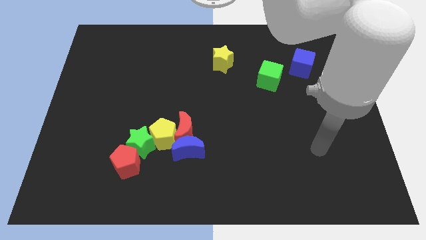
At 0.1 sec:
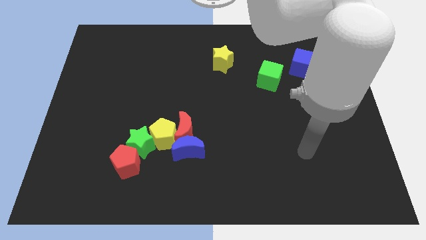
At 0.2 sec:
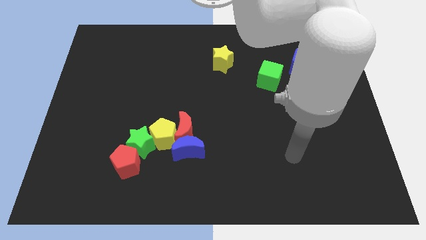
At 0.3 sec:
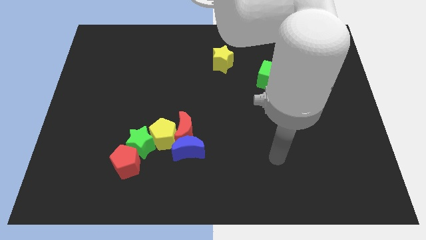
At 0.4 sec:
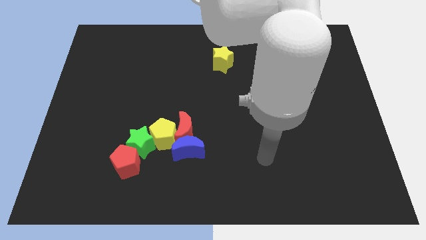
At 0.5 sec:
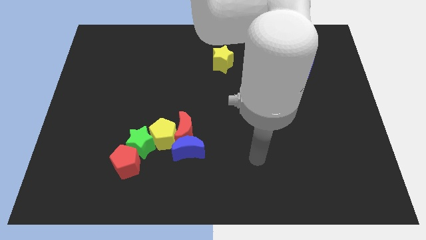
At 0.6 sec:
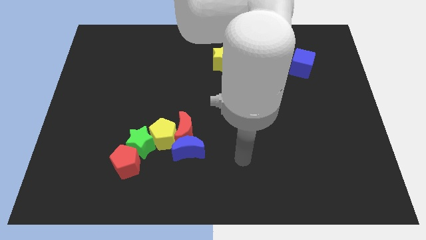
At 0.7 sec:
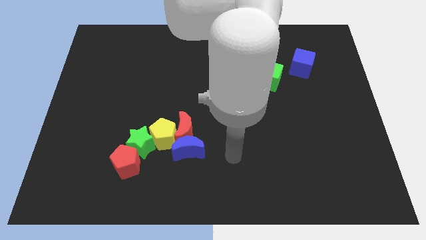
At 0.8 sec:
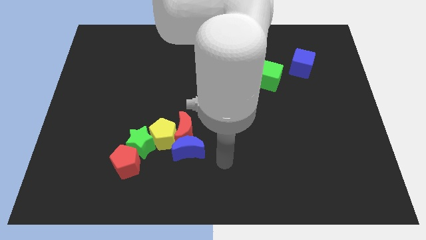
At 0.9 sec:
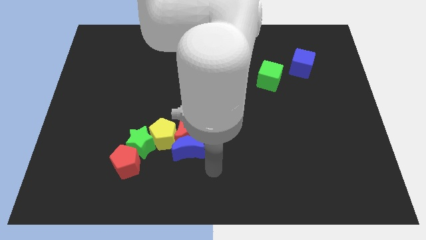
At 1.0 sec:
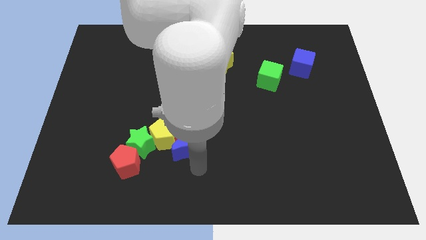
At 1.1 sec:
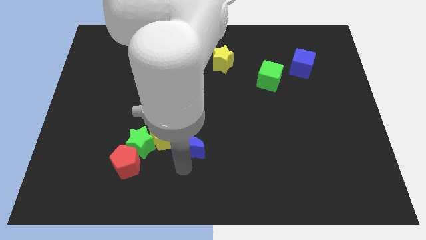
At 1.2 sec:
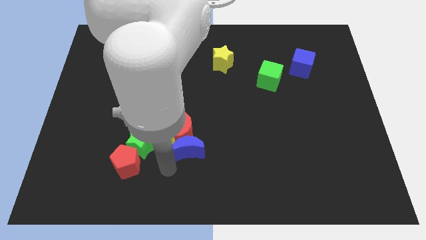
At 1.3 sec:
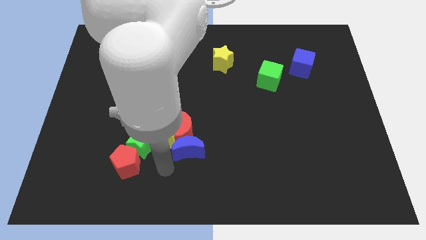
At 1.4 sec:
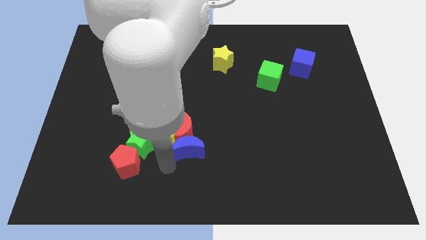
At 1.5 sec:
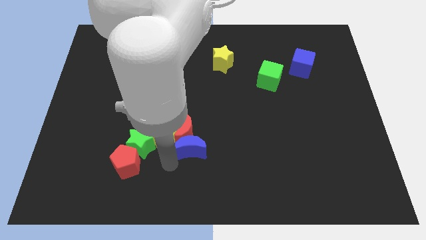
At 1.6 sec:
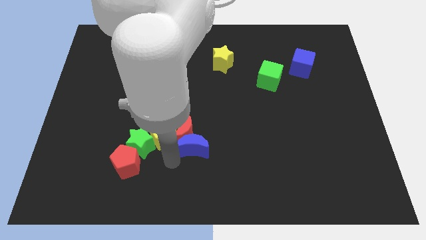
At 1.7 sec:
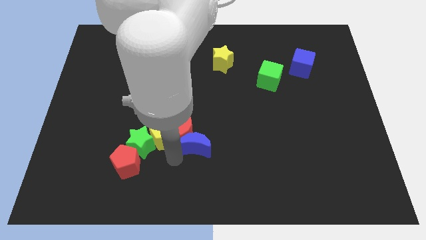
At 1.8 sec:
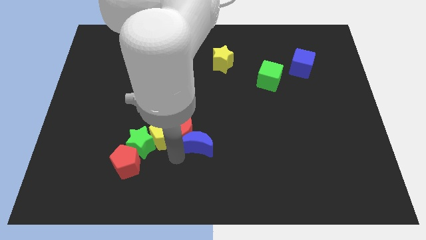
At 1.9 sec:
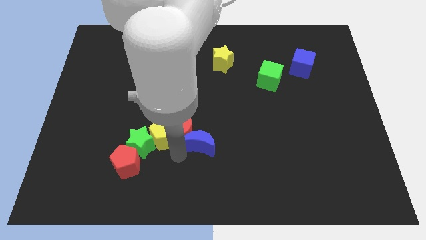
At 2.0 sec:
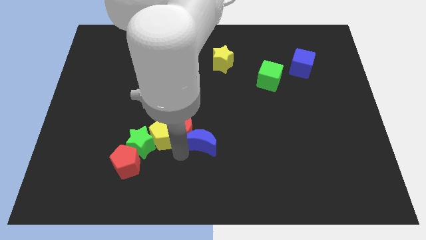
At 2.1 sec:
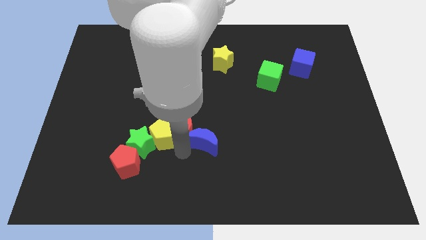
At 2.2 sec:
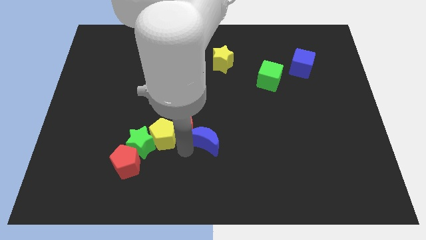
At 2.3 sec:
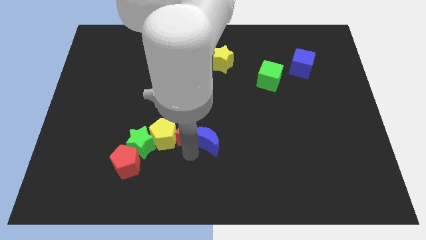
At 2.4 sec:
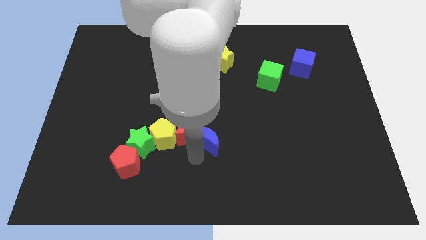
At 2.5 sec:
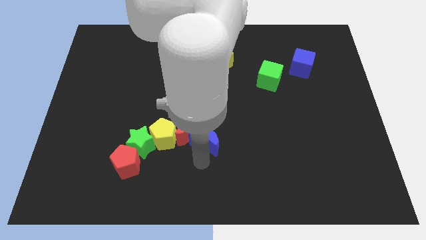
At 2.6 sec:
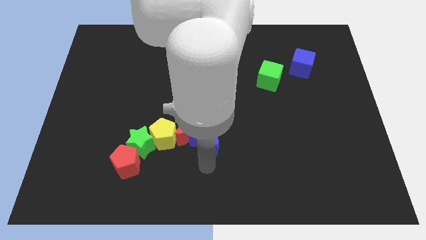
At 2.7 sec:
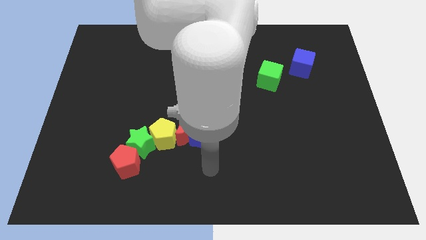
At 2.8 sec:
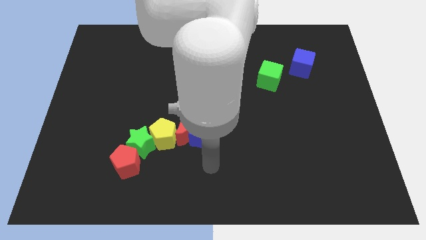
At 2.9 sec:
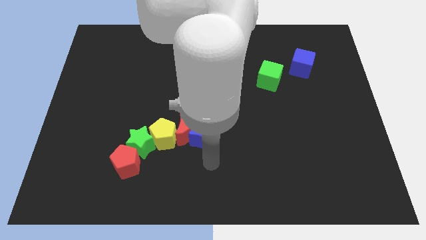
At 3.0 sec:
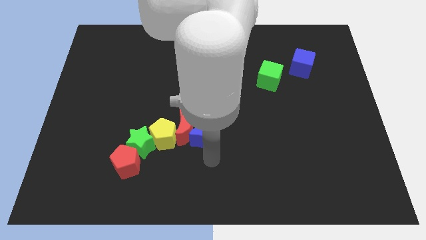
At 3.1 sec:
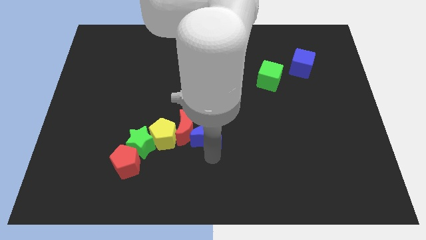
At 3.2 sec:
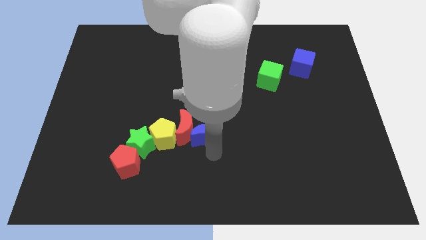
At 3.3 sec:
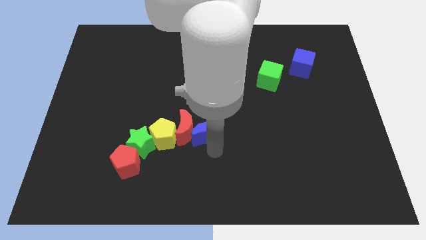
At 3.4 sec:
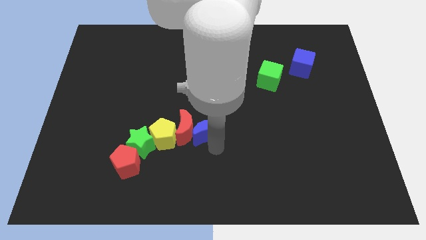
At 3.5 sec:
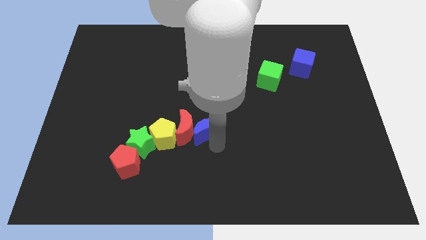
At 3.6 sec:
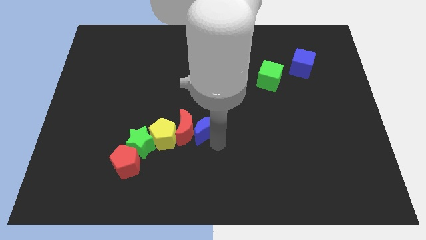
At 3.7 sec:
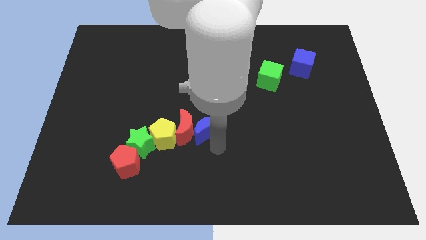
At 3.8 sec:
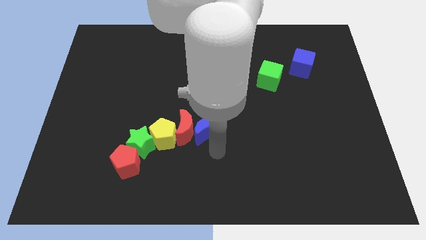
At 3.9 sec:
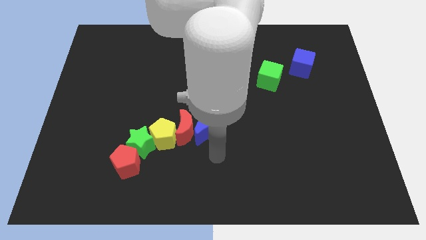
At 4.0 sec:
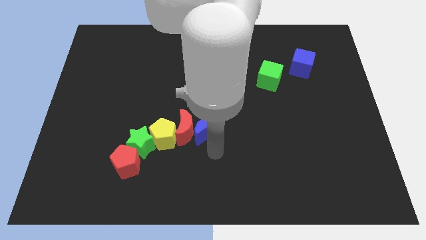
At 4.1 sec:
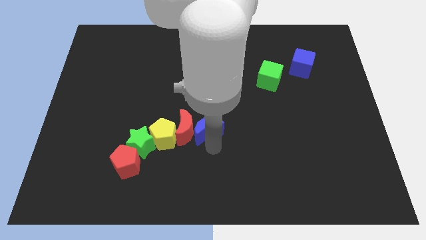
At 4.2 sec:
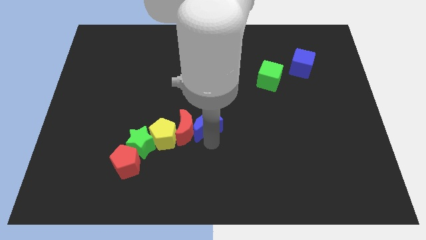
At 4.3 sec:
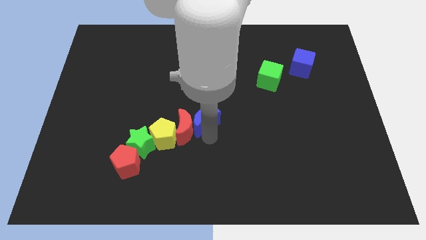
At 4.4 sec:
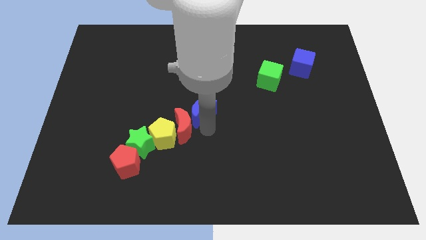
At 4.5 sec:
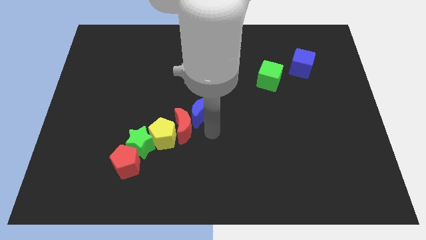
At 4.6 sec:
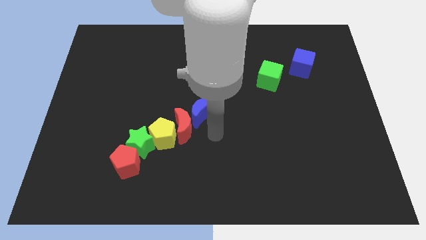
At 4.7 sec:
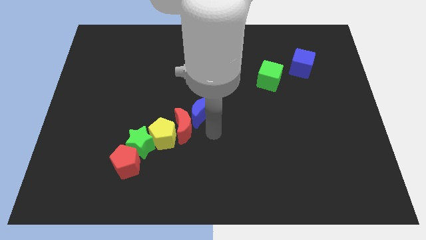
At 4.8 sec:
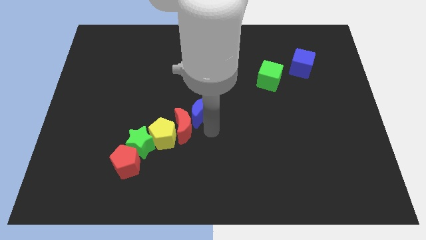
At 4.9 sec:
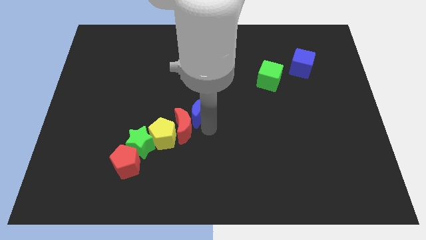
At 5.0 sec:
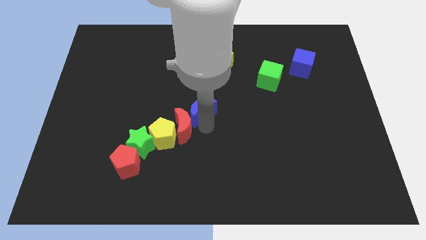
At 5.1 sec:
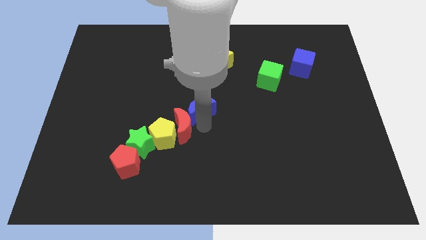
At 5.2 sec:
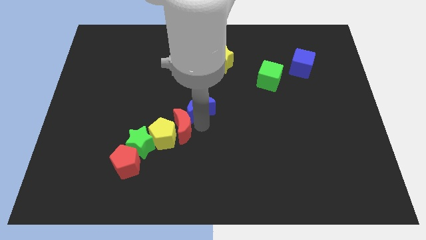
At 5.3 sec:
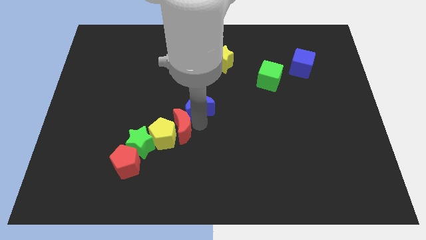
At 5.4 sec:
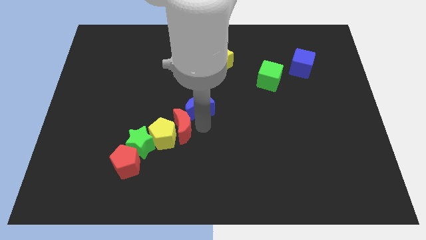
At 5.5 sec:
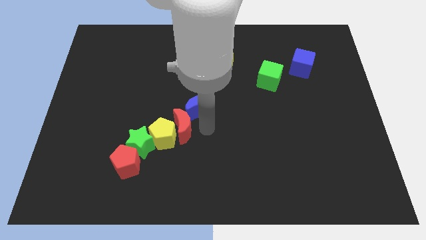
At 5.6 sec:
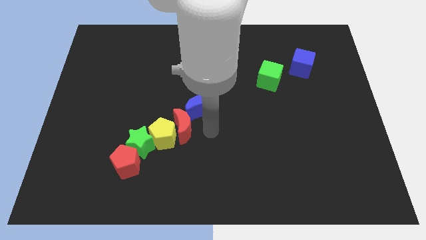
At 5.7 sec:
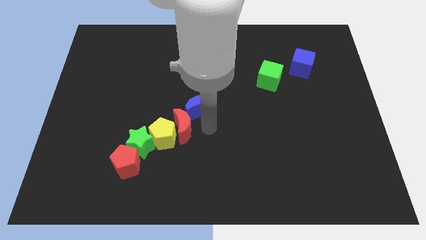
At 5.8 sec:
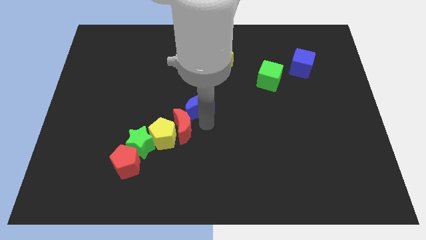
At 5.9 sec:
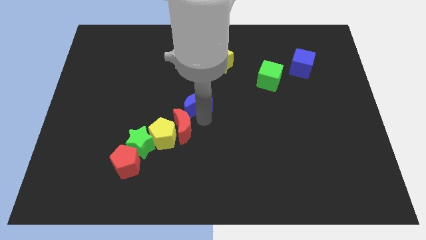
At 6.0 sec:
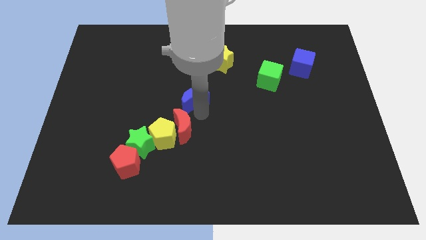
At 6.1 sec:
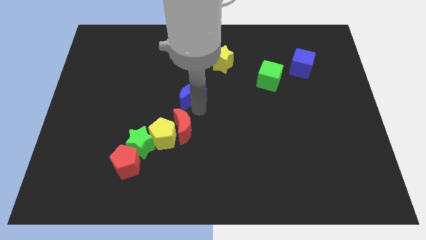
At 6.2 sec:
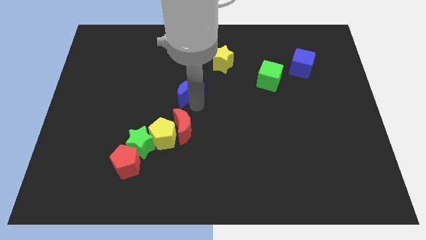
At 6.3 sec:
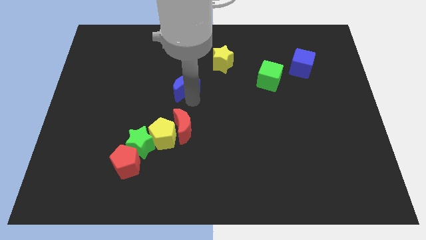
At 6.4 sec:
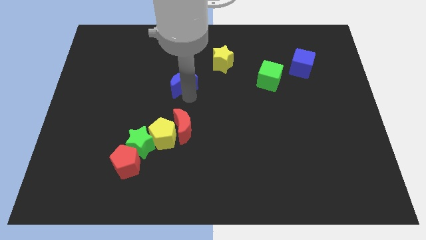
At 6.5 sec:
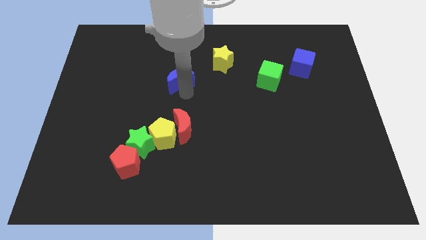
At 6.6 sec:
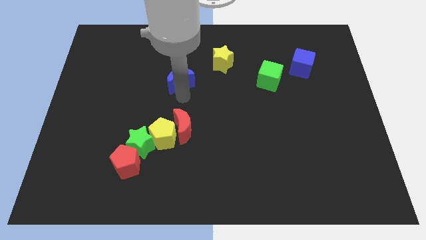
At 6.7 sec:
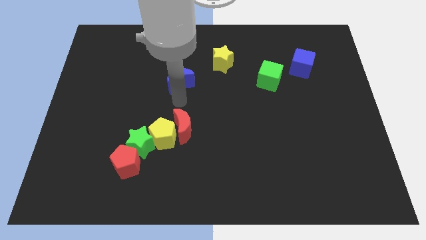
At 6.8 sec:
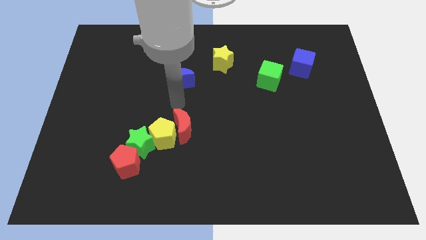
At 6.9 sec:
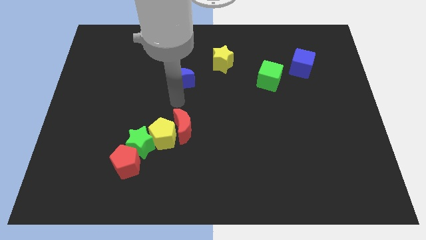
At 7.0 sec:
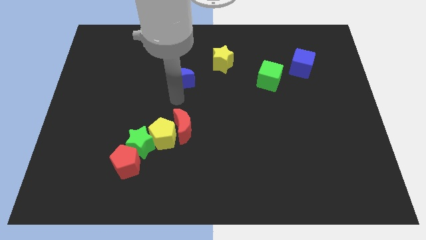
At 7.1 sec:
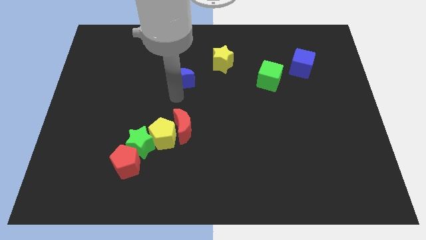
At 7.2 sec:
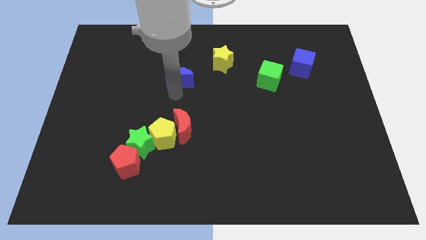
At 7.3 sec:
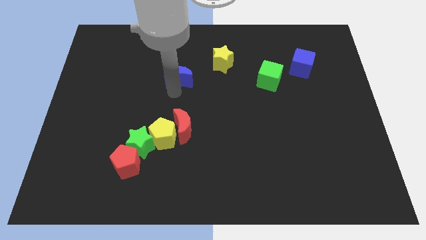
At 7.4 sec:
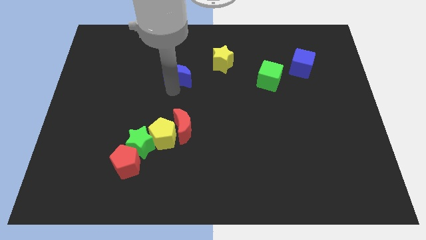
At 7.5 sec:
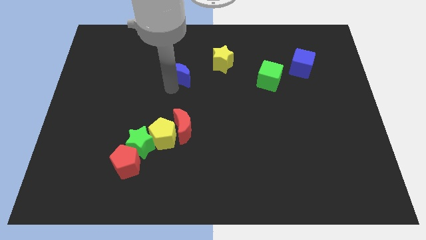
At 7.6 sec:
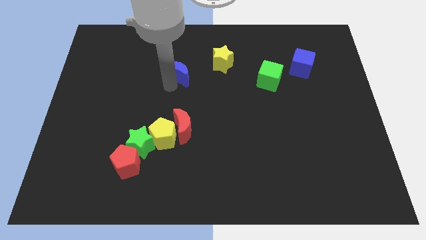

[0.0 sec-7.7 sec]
put the blue moon to the left side of the yellow star
